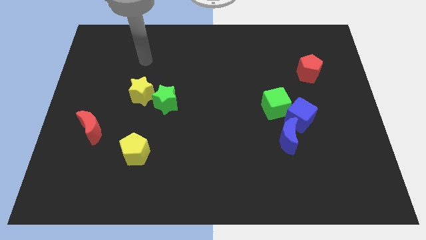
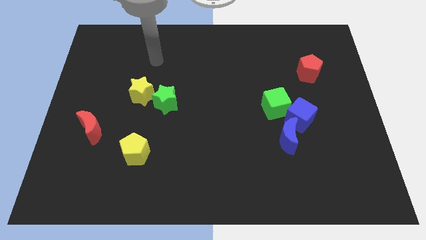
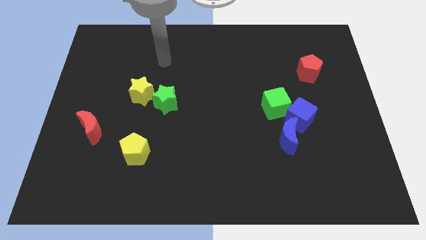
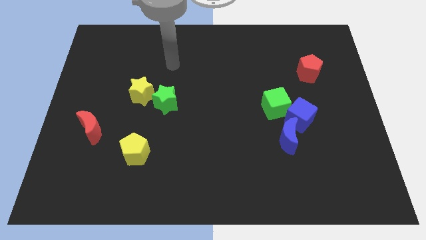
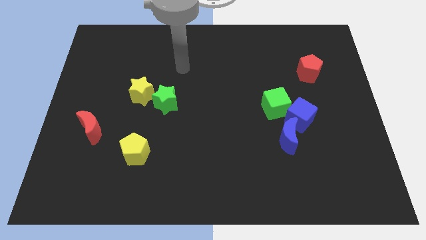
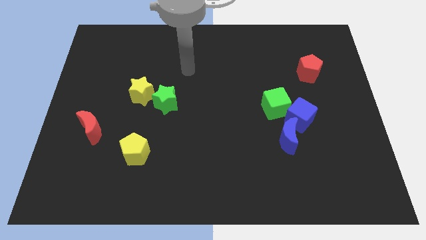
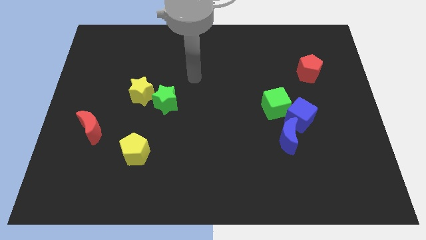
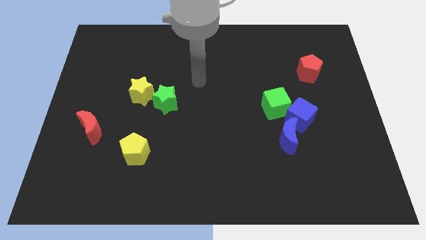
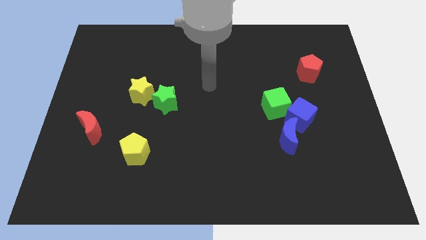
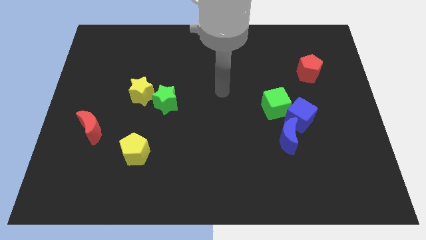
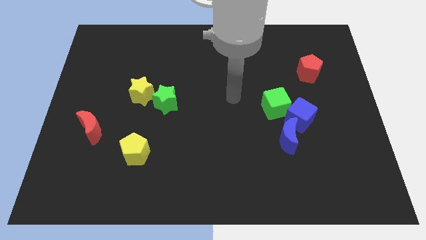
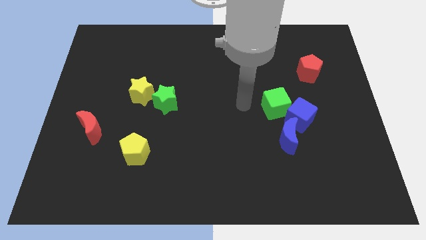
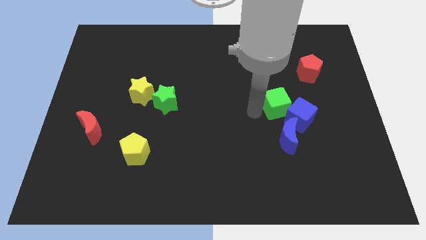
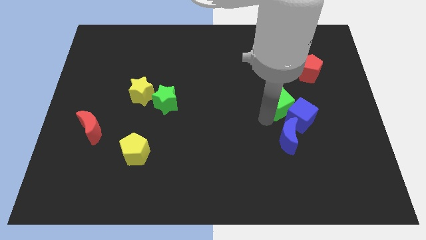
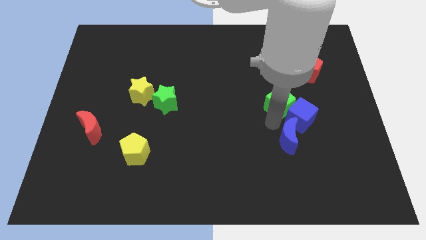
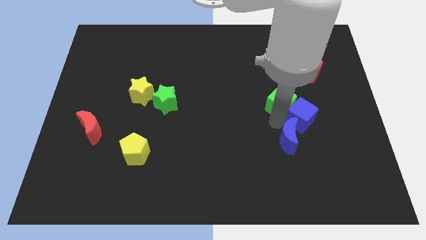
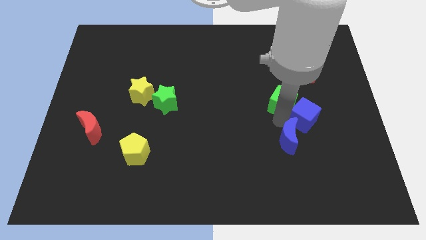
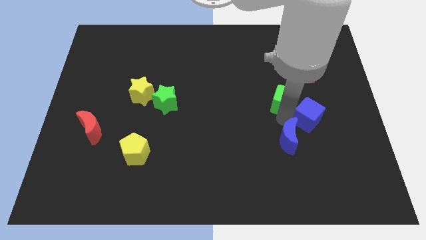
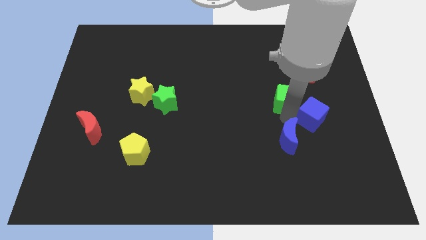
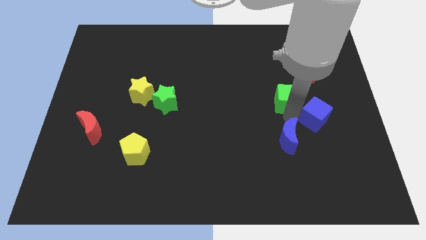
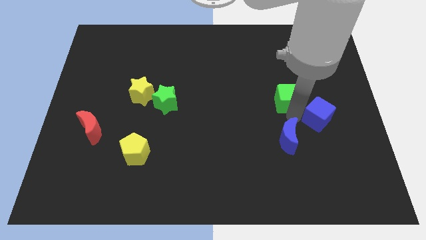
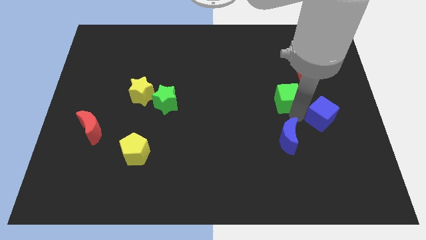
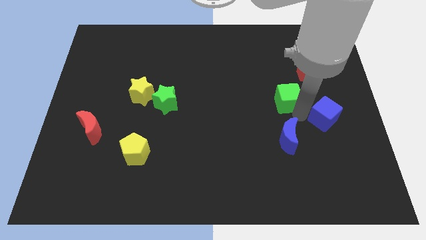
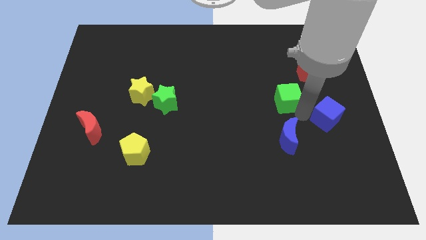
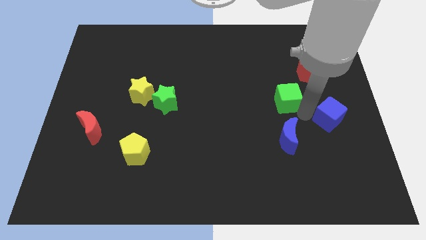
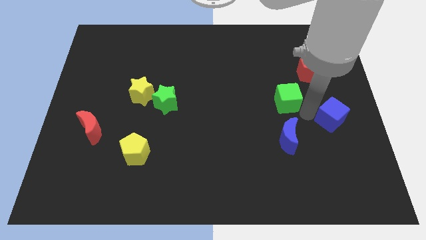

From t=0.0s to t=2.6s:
separate the blue cube from the green cube and blue moon

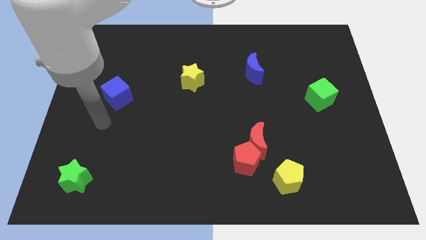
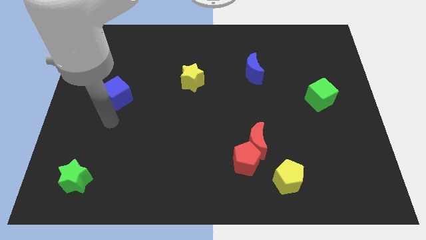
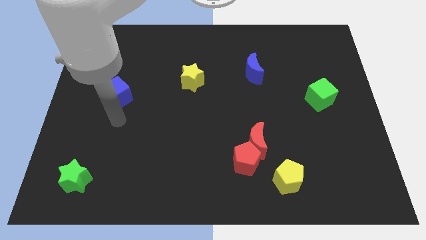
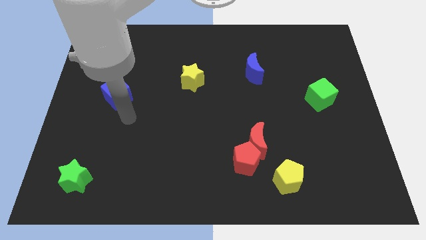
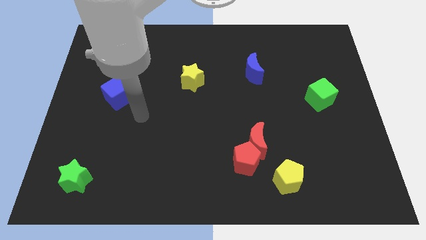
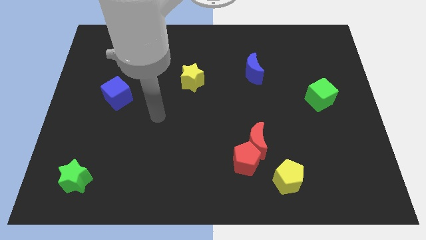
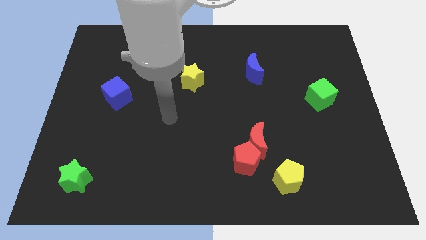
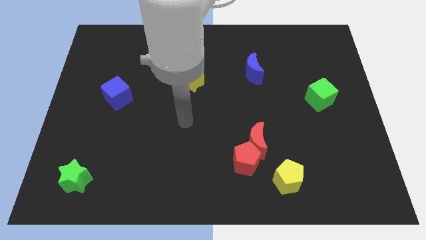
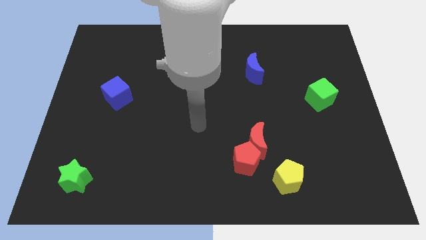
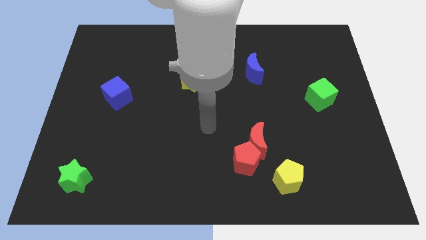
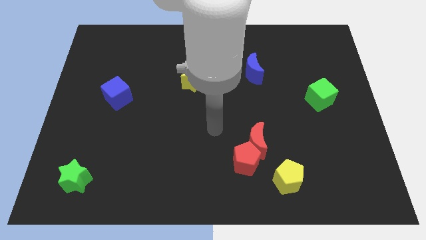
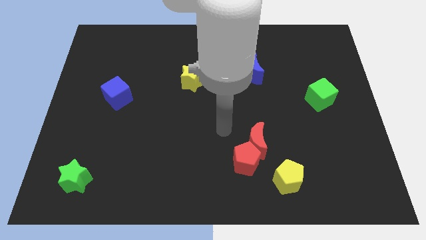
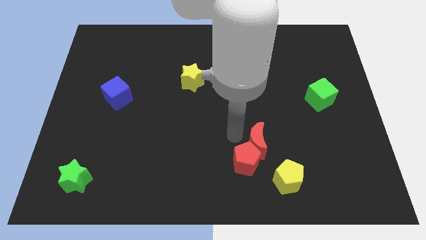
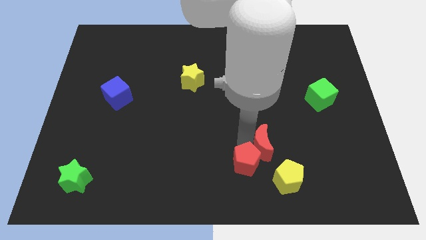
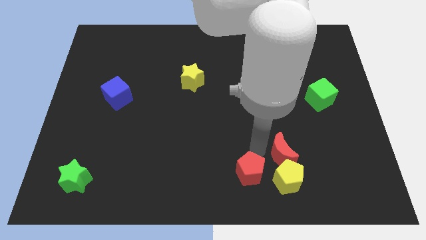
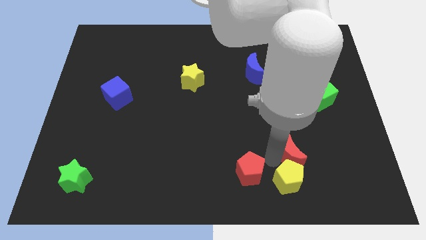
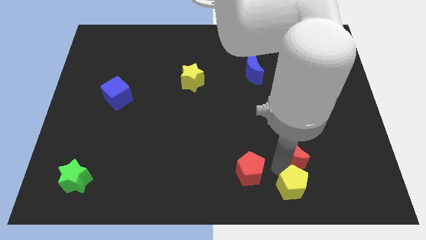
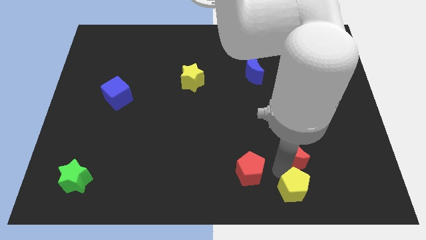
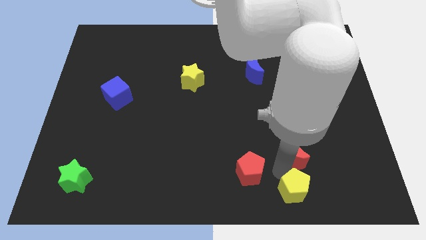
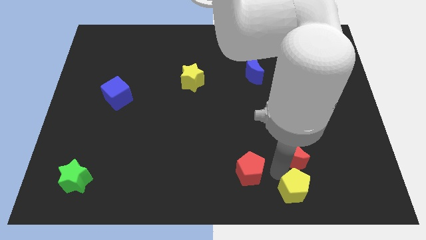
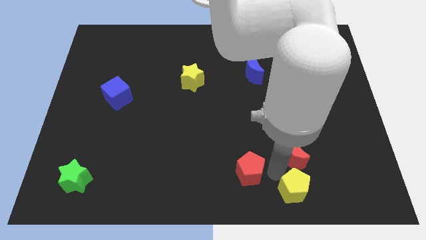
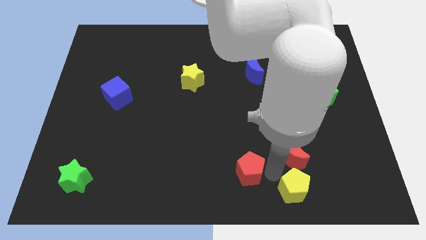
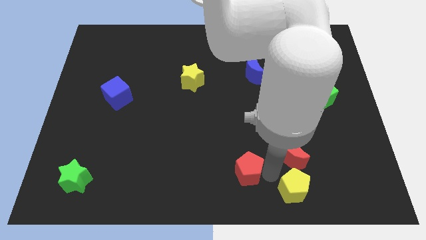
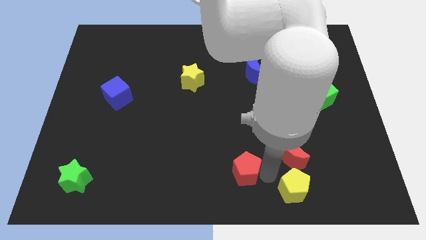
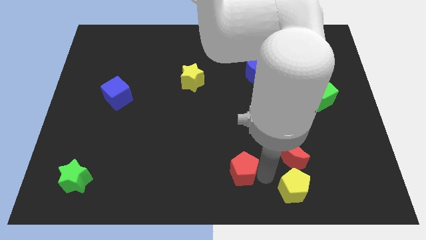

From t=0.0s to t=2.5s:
pull the red pentagon apart from the red moon and yellow pentagon

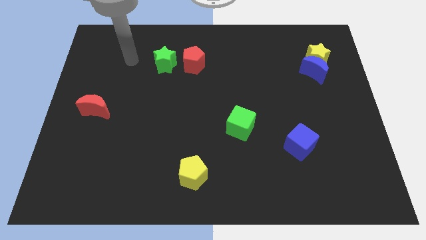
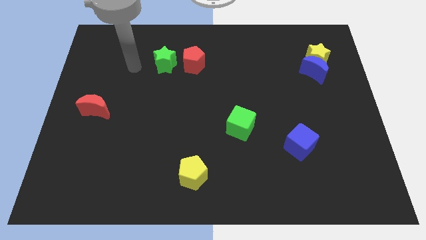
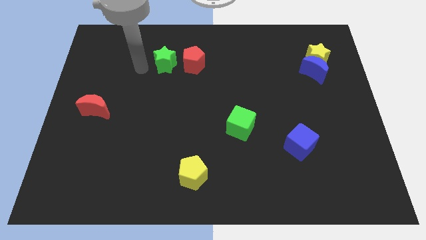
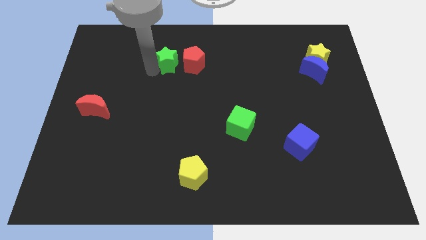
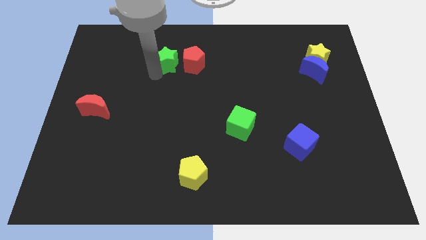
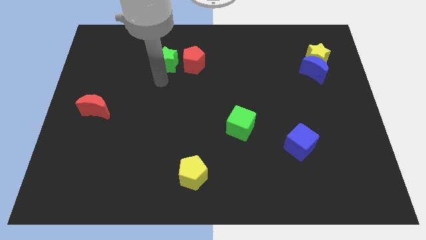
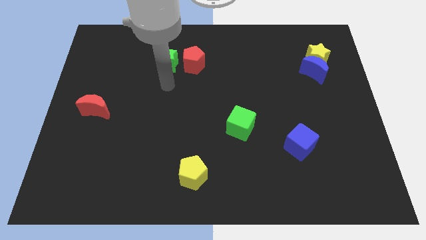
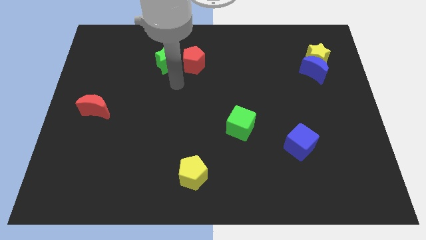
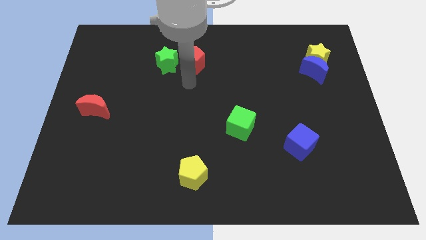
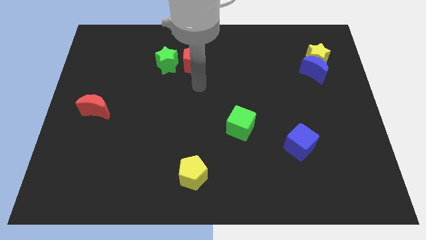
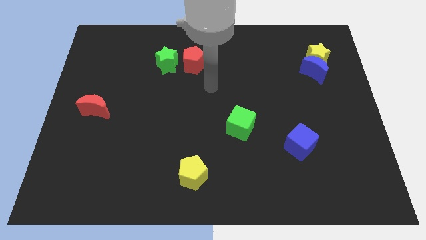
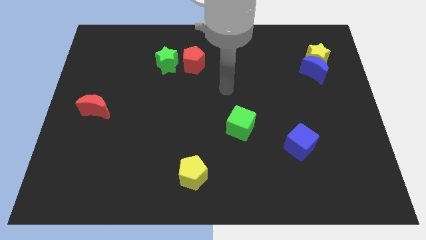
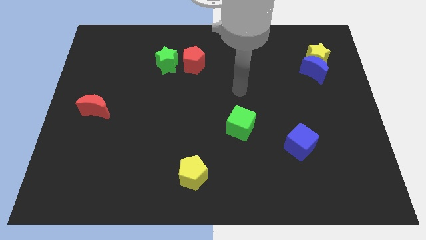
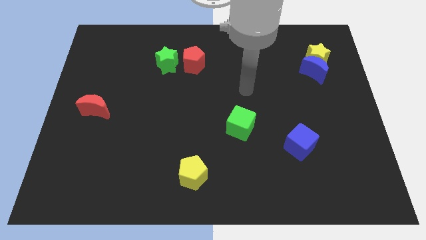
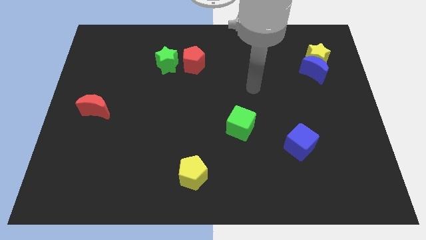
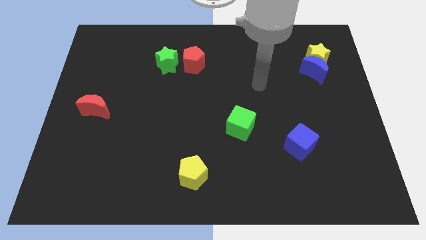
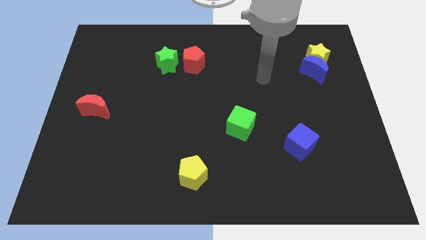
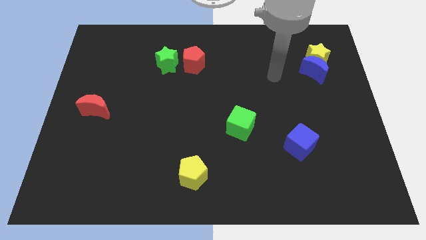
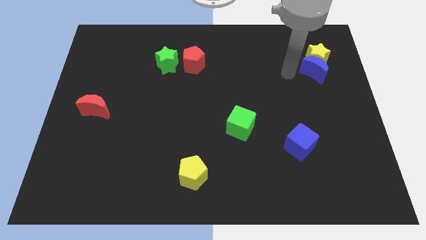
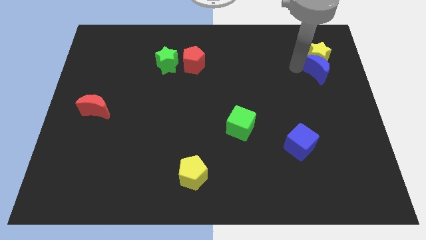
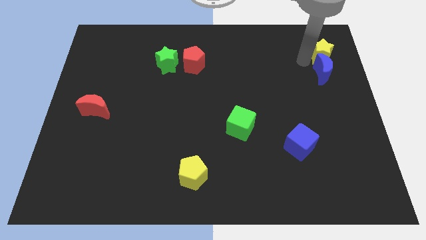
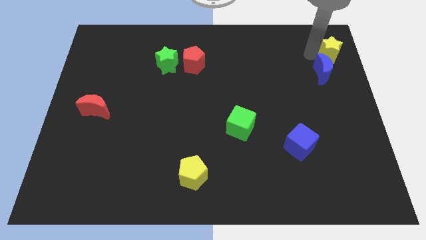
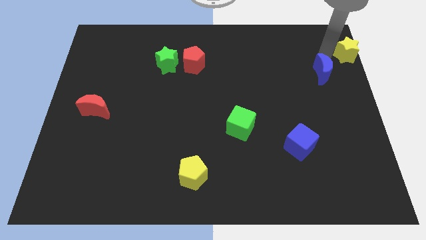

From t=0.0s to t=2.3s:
pull the blue moon apart from the yellow star

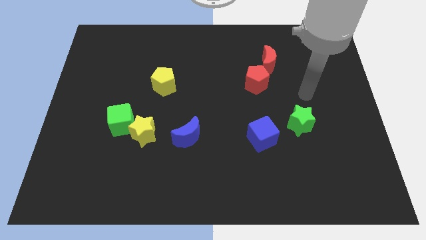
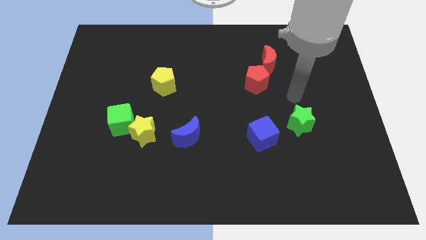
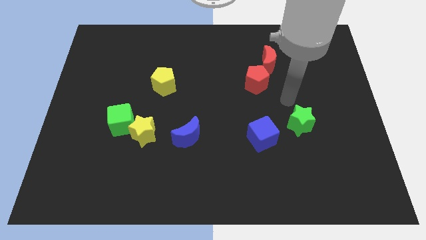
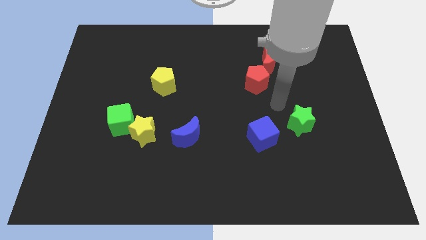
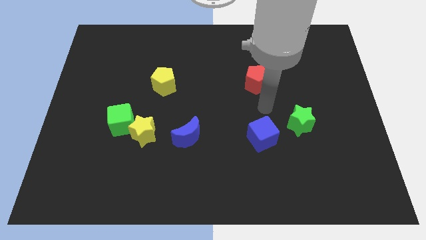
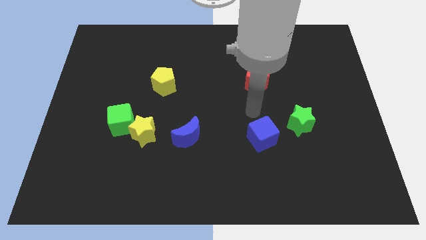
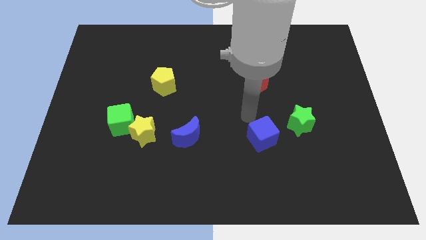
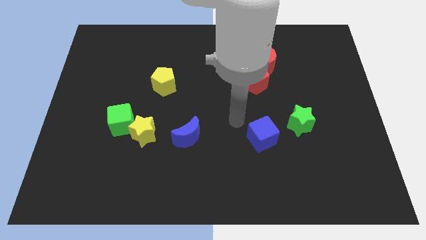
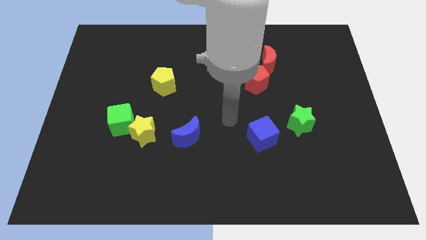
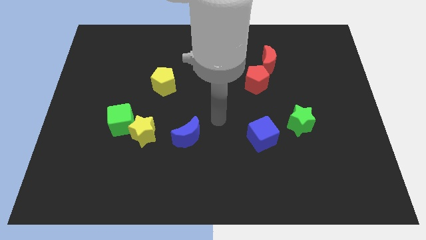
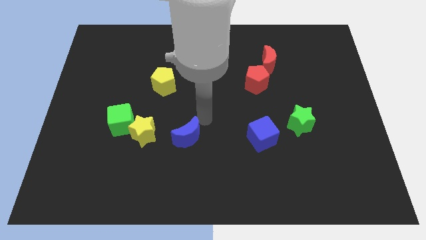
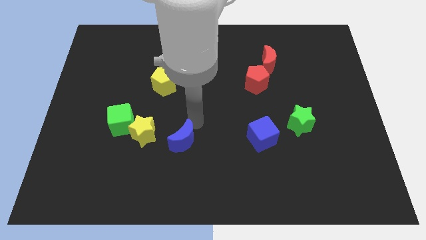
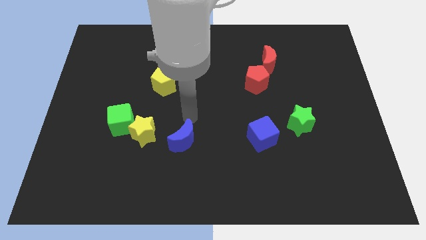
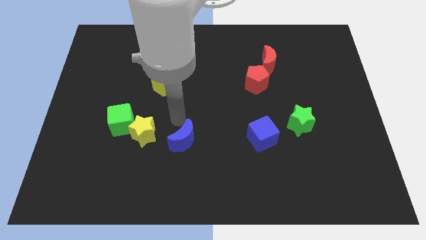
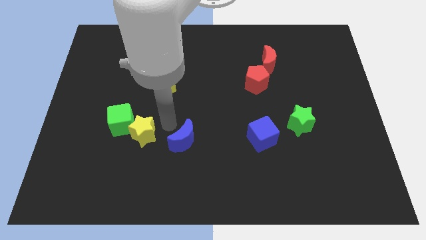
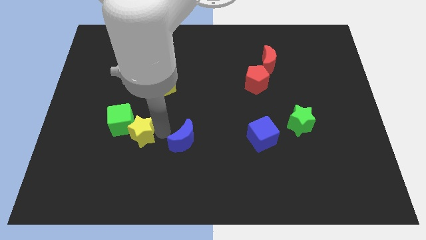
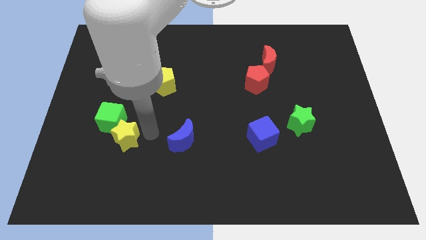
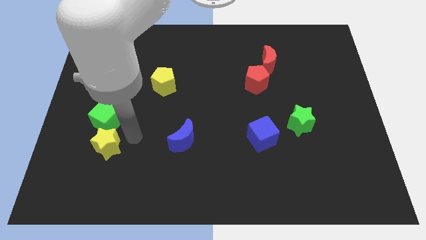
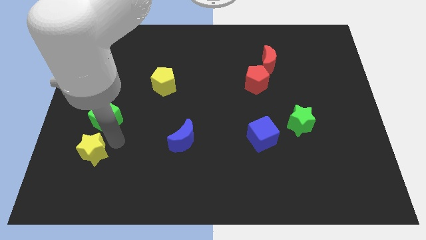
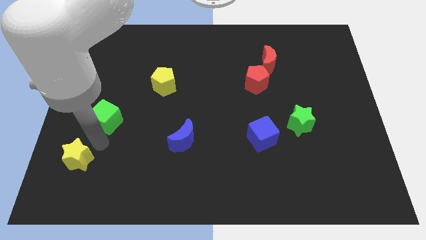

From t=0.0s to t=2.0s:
move the green cube away from the yellow star

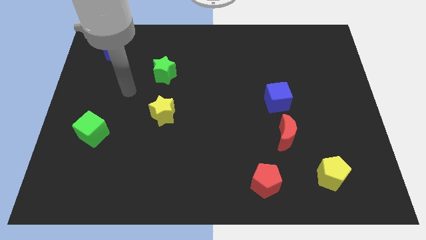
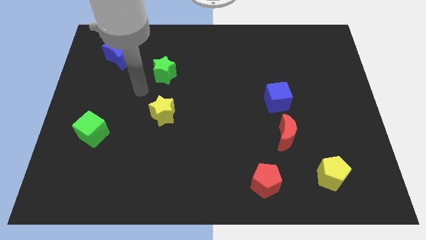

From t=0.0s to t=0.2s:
pull the red moon apart from the blue cube
